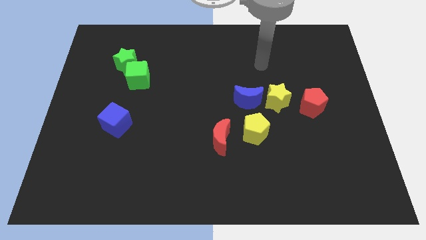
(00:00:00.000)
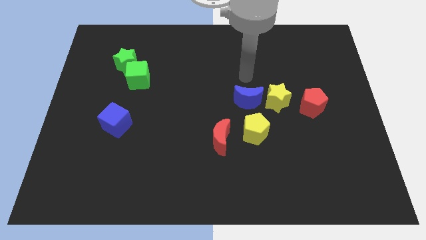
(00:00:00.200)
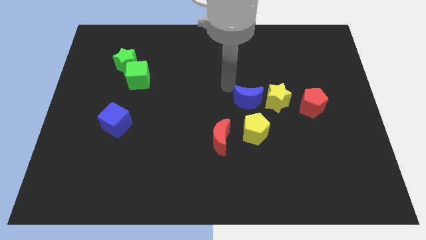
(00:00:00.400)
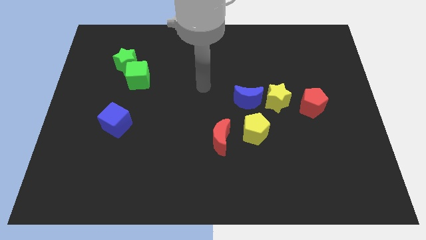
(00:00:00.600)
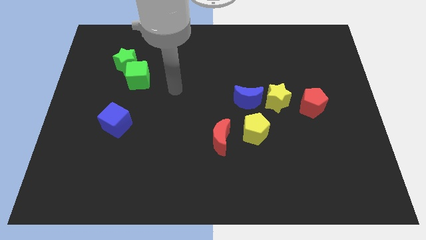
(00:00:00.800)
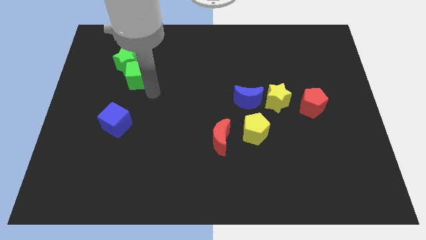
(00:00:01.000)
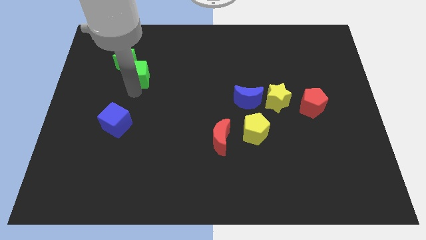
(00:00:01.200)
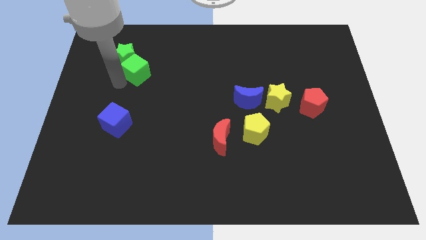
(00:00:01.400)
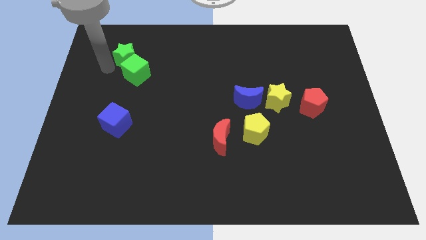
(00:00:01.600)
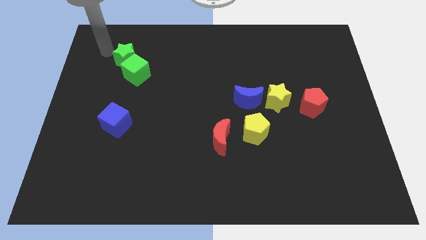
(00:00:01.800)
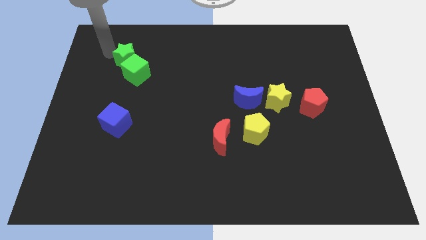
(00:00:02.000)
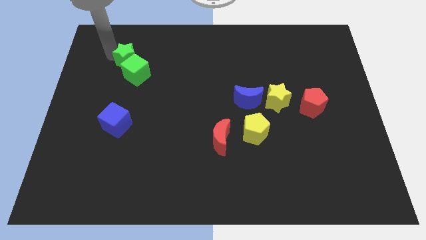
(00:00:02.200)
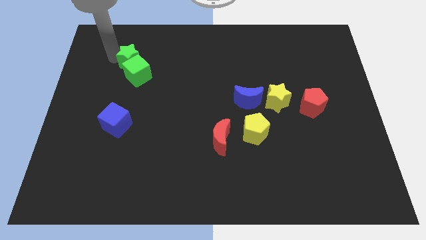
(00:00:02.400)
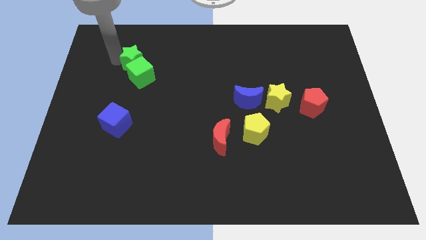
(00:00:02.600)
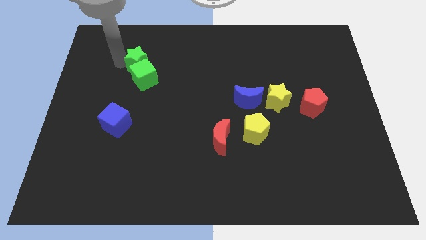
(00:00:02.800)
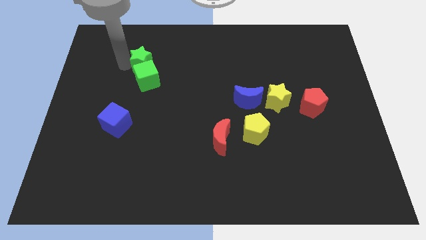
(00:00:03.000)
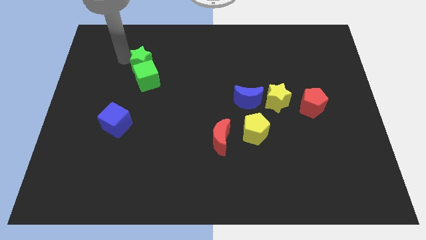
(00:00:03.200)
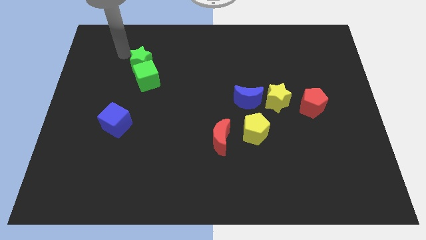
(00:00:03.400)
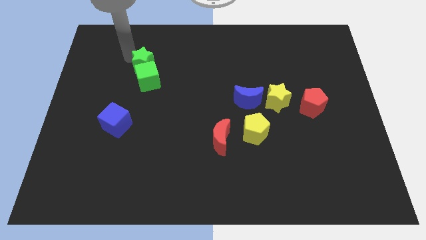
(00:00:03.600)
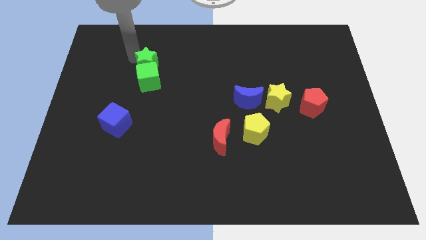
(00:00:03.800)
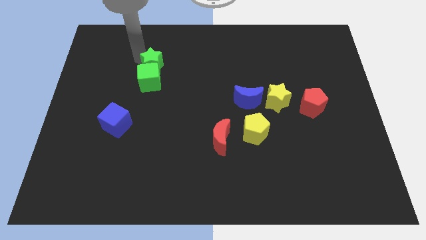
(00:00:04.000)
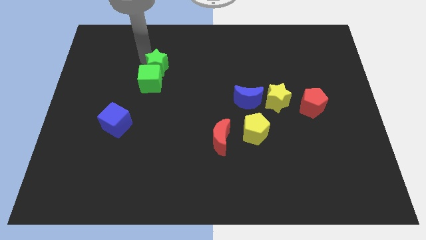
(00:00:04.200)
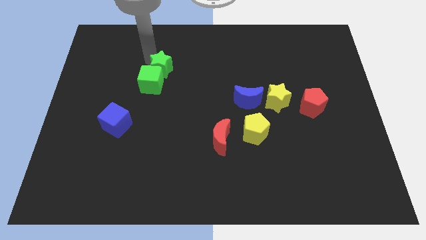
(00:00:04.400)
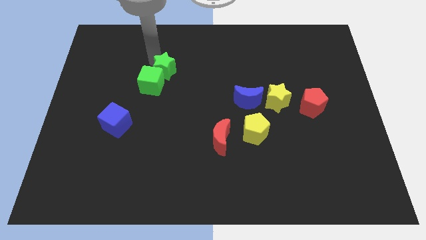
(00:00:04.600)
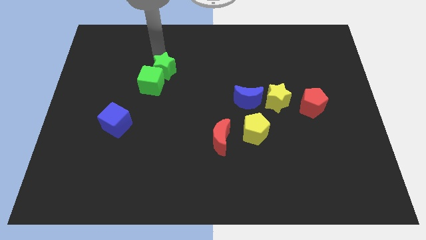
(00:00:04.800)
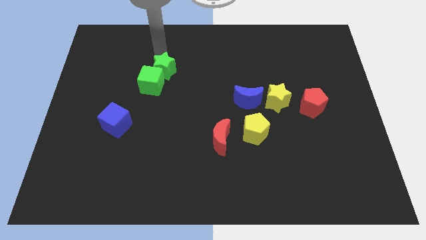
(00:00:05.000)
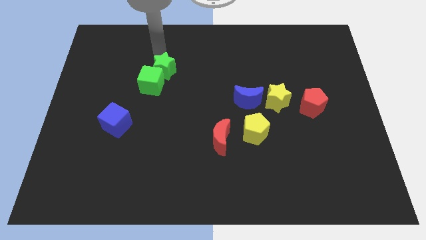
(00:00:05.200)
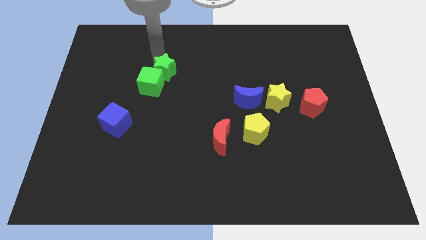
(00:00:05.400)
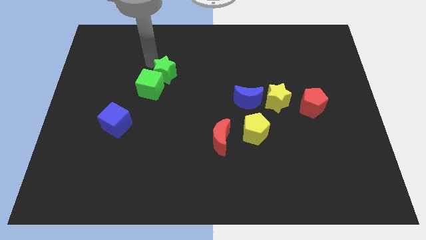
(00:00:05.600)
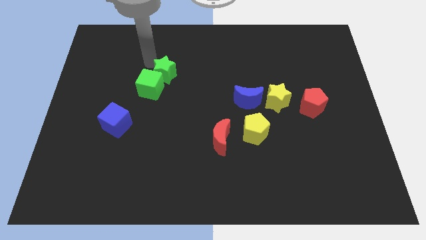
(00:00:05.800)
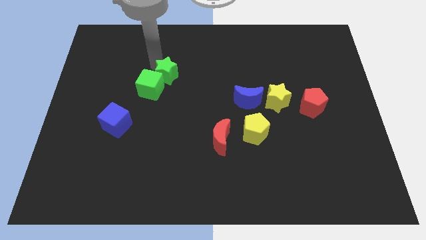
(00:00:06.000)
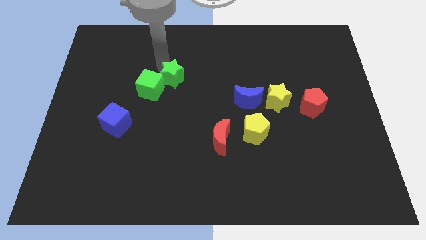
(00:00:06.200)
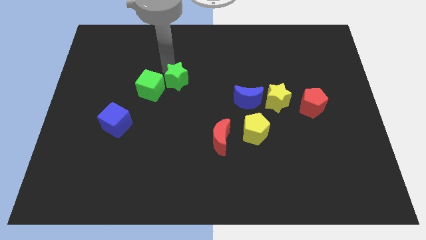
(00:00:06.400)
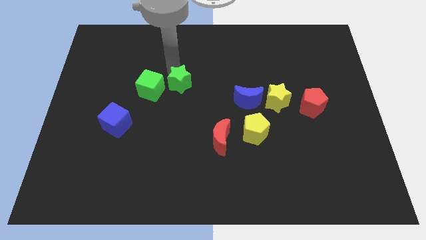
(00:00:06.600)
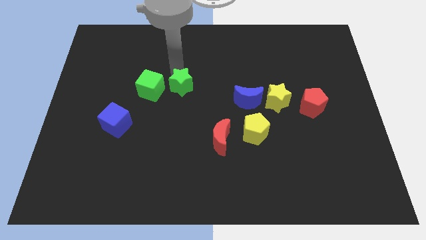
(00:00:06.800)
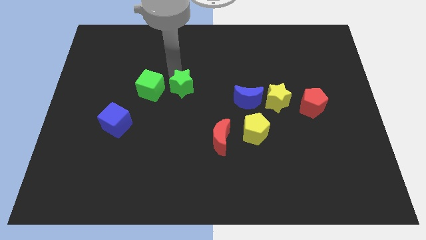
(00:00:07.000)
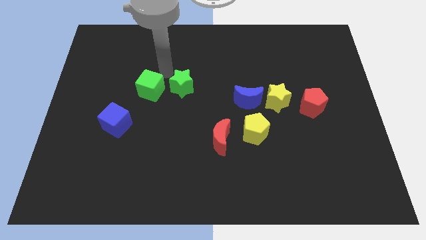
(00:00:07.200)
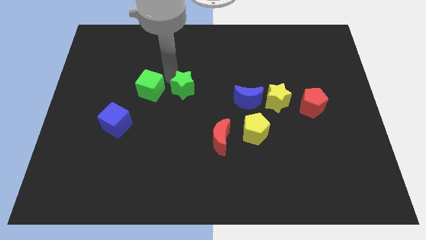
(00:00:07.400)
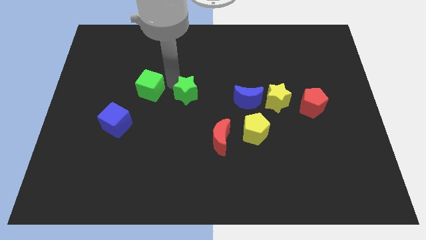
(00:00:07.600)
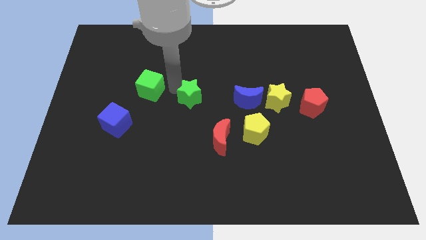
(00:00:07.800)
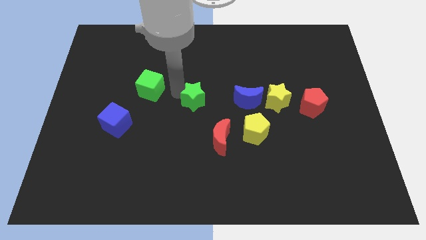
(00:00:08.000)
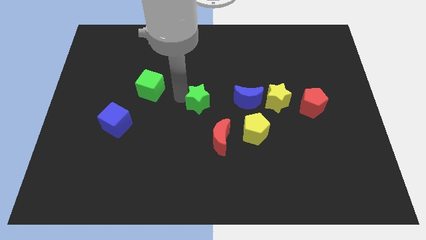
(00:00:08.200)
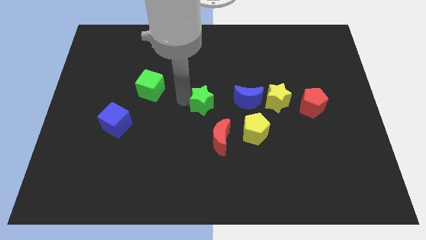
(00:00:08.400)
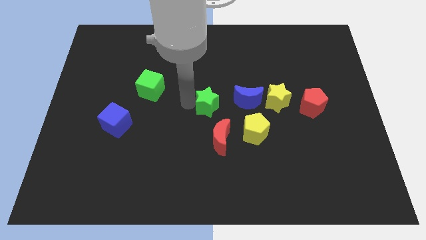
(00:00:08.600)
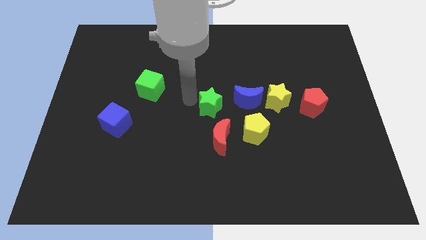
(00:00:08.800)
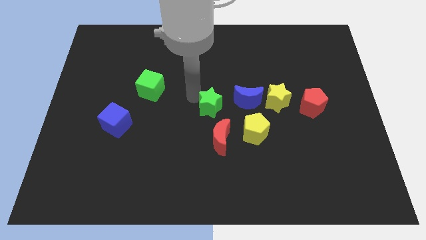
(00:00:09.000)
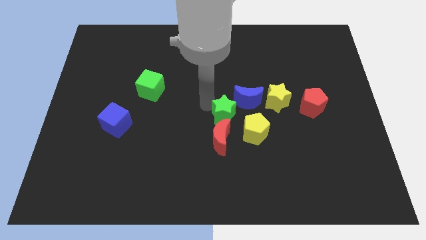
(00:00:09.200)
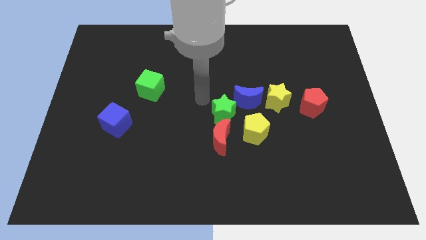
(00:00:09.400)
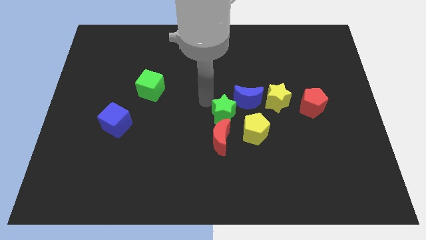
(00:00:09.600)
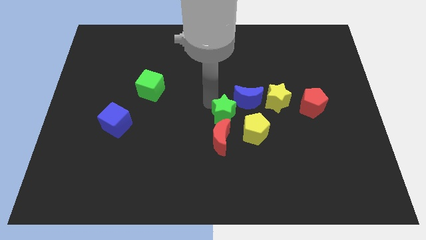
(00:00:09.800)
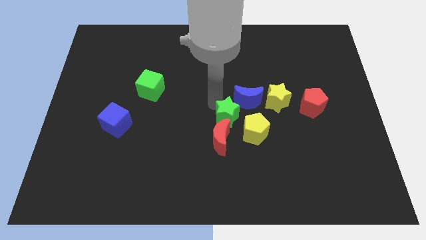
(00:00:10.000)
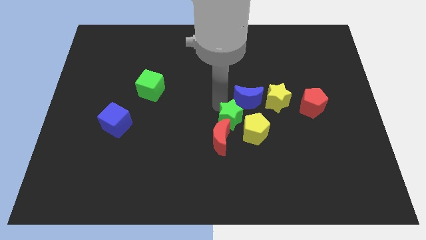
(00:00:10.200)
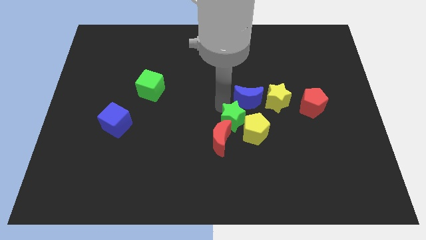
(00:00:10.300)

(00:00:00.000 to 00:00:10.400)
move the green star close to the yellow pentagon

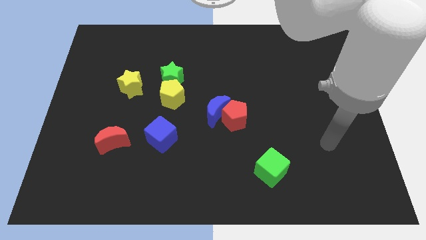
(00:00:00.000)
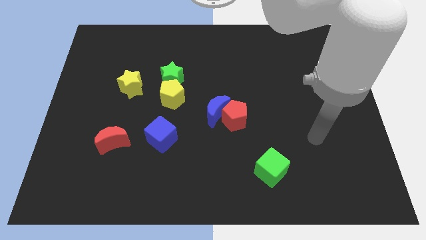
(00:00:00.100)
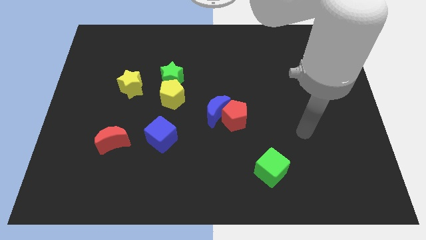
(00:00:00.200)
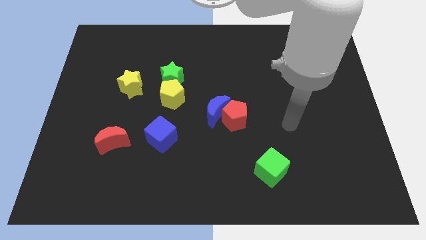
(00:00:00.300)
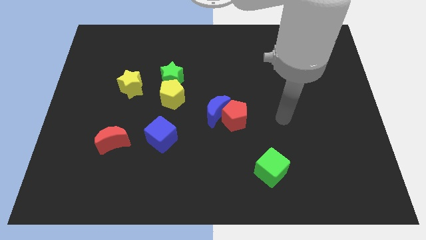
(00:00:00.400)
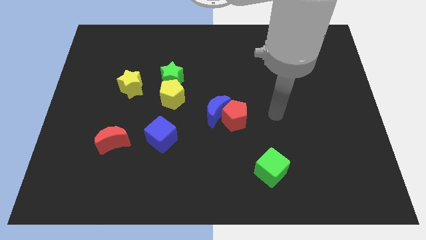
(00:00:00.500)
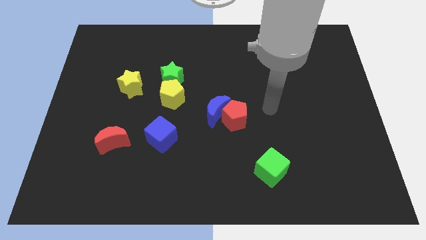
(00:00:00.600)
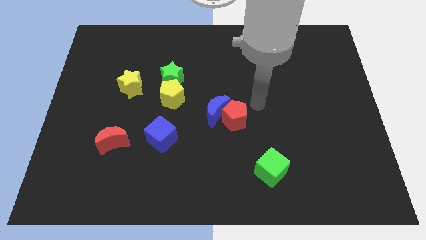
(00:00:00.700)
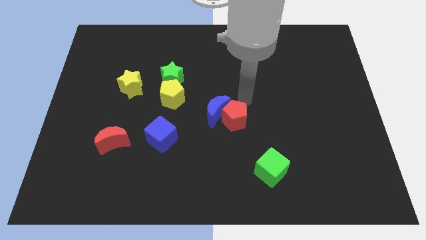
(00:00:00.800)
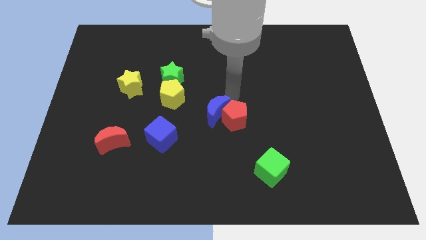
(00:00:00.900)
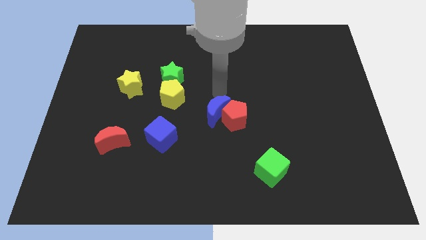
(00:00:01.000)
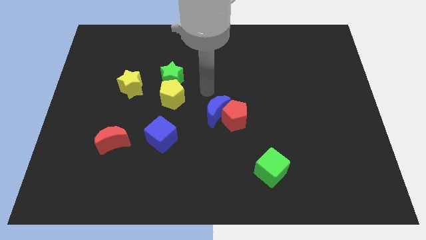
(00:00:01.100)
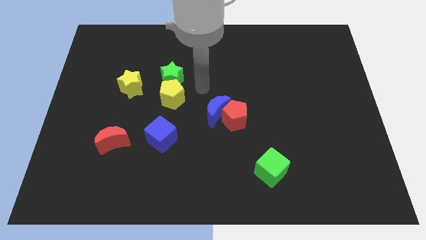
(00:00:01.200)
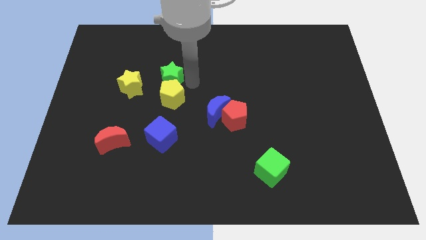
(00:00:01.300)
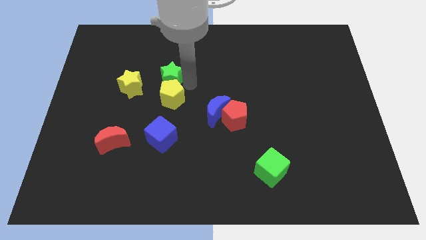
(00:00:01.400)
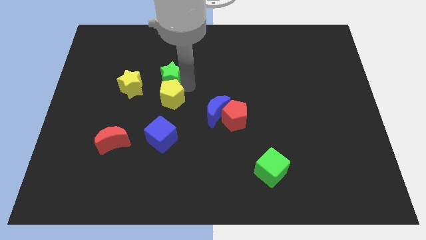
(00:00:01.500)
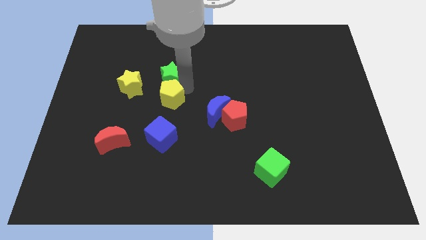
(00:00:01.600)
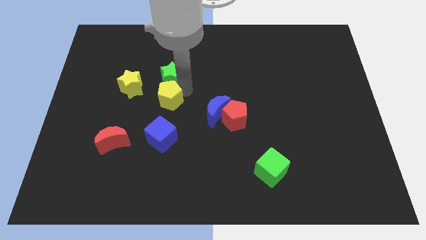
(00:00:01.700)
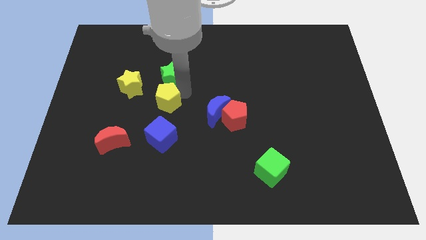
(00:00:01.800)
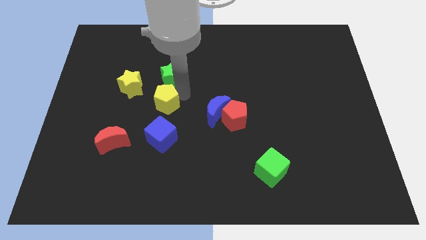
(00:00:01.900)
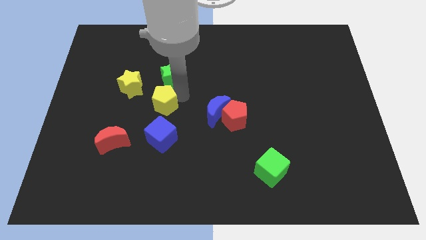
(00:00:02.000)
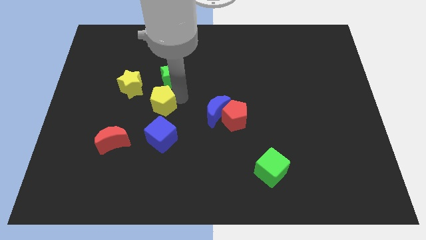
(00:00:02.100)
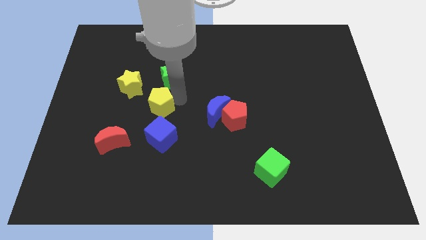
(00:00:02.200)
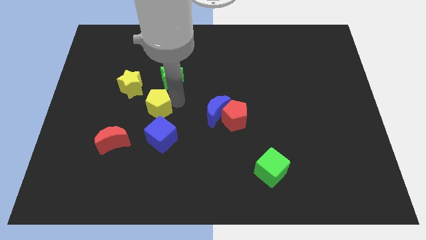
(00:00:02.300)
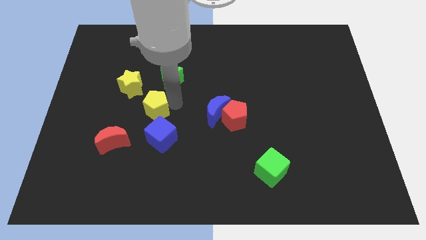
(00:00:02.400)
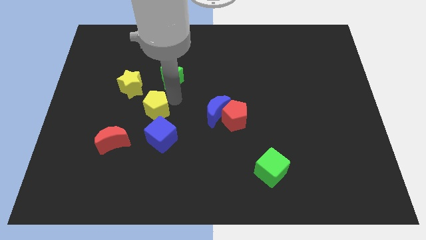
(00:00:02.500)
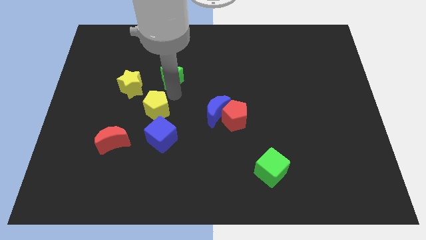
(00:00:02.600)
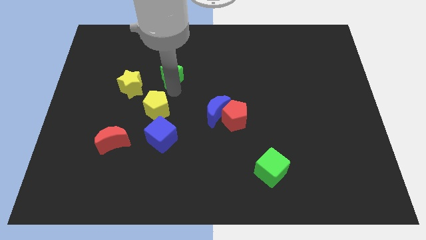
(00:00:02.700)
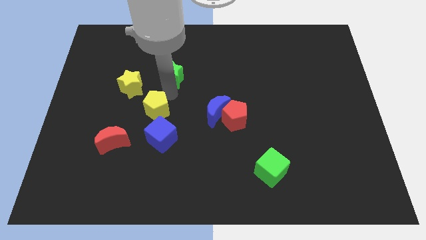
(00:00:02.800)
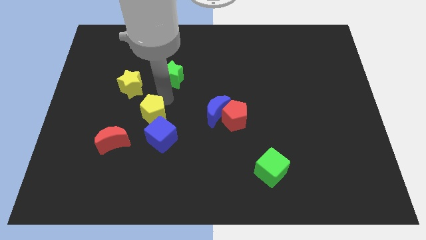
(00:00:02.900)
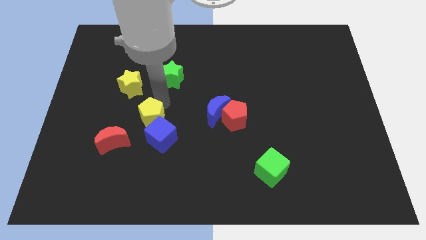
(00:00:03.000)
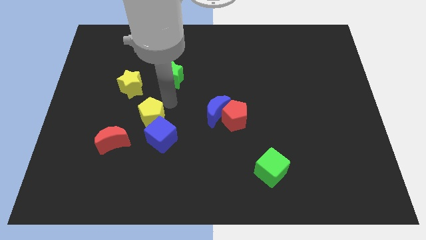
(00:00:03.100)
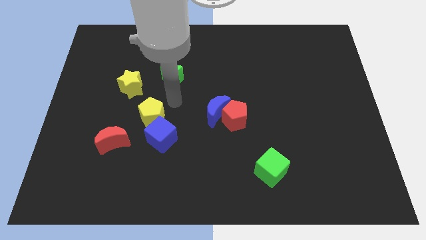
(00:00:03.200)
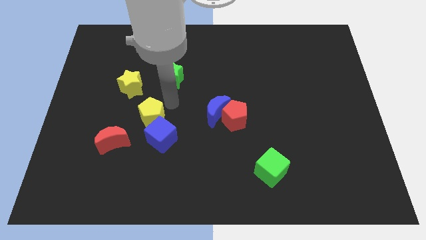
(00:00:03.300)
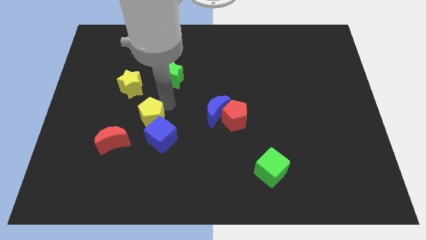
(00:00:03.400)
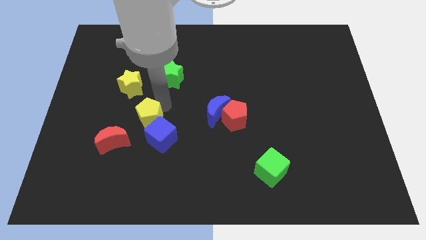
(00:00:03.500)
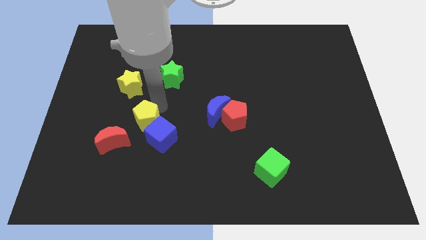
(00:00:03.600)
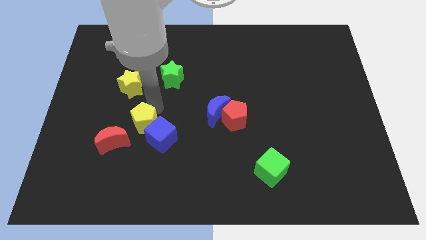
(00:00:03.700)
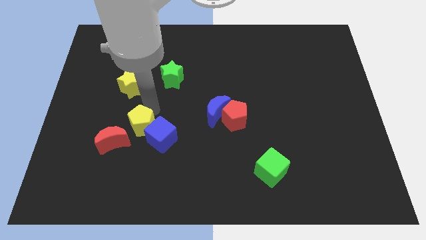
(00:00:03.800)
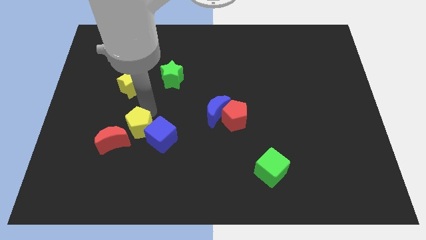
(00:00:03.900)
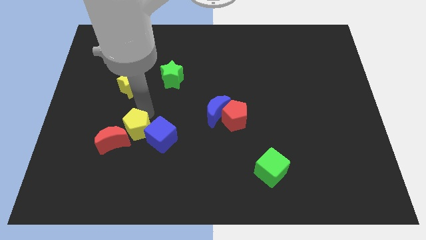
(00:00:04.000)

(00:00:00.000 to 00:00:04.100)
put the yellow pentagon close to the red moon
